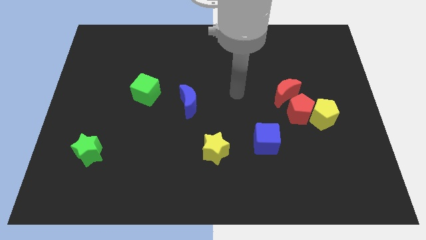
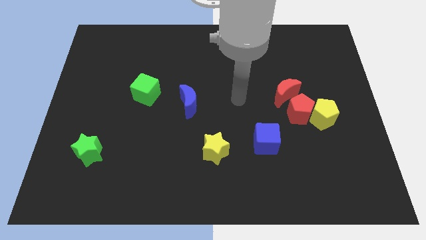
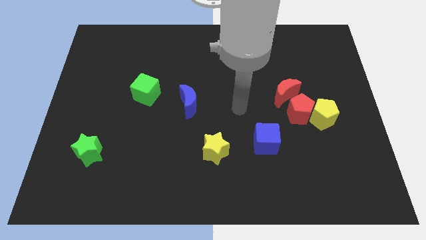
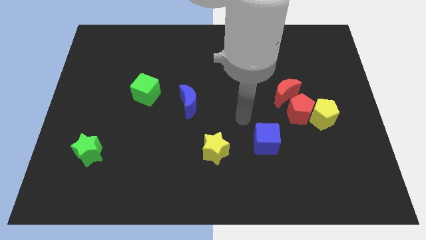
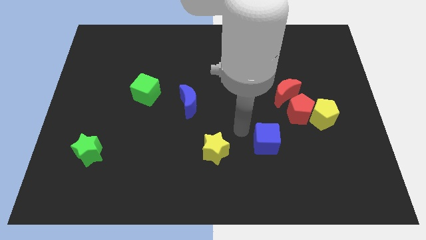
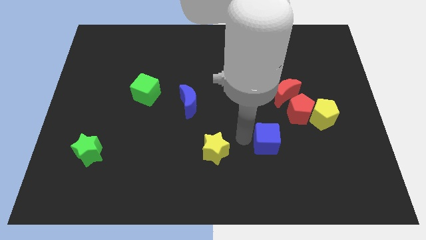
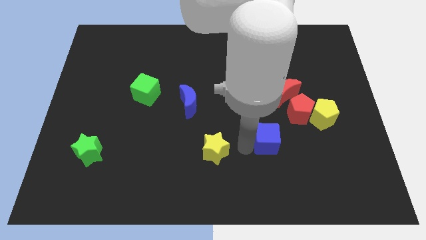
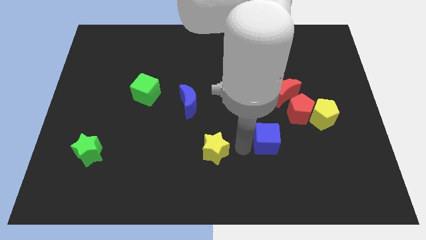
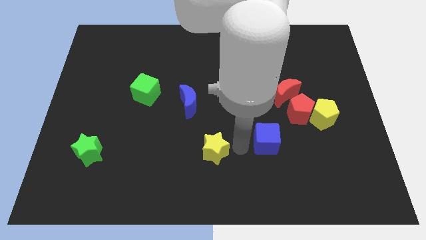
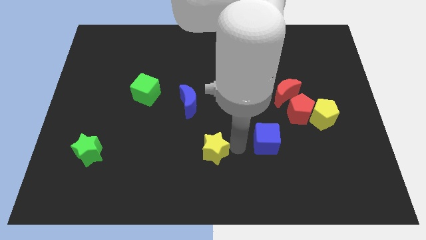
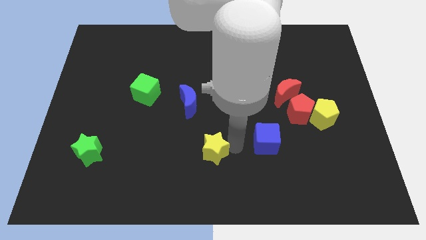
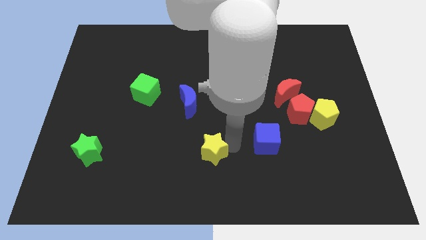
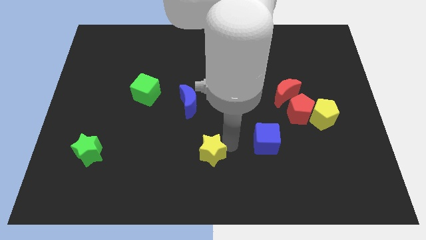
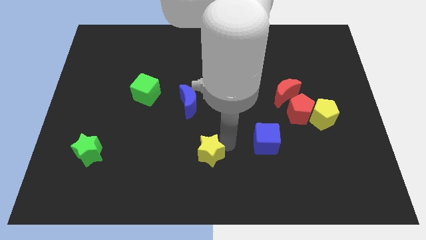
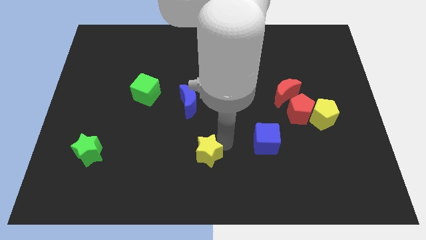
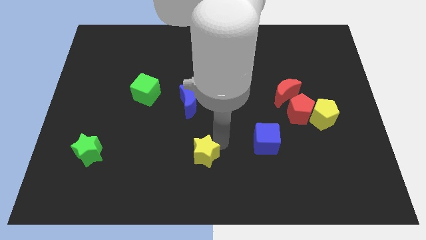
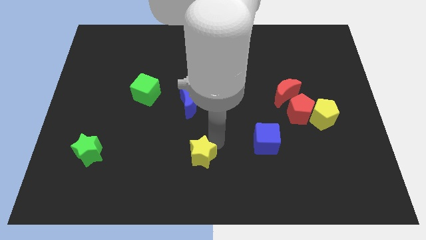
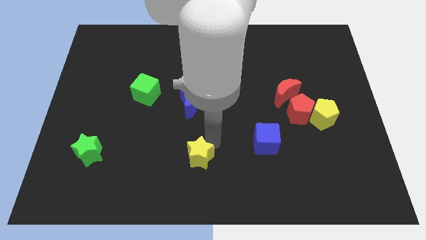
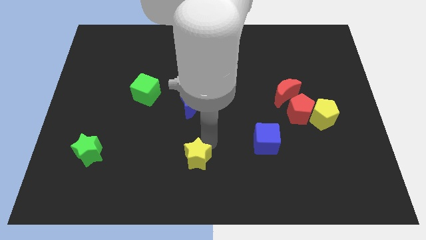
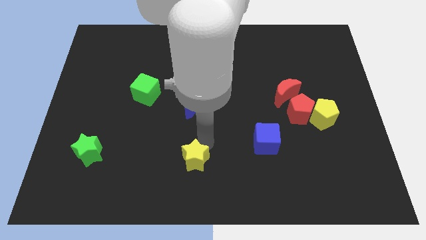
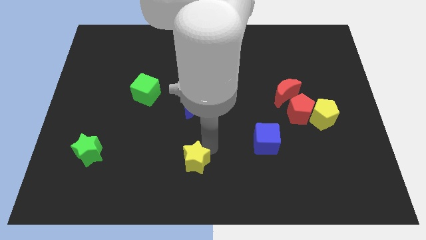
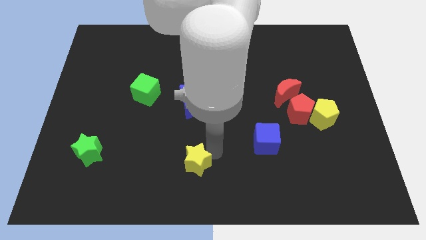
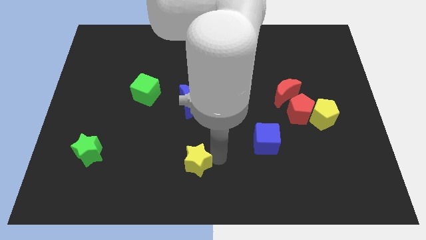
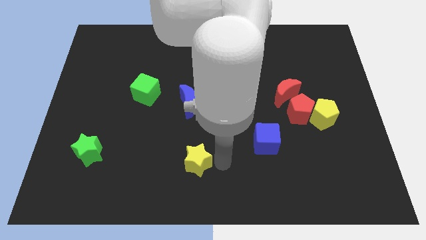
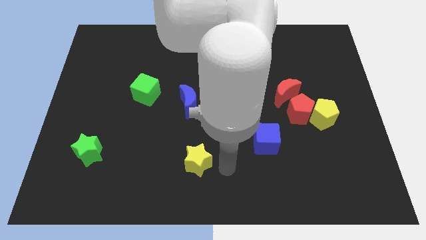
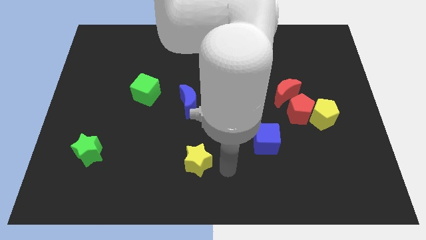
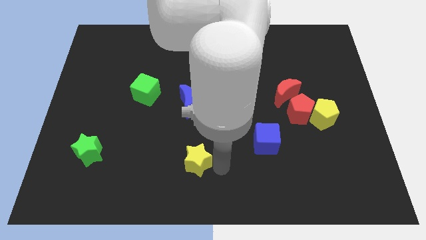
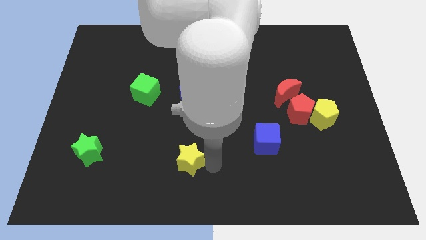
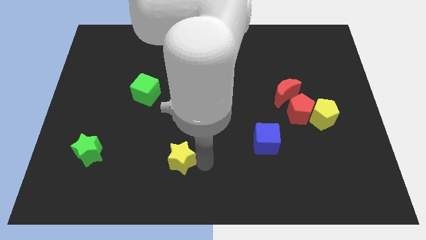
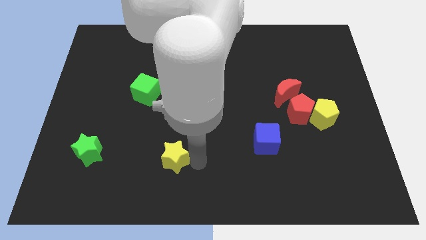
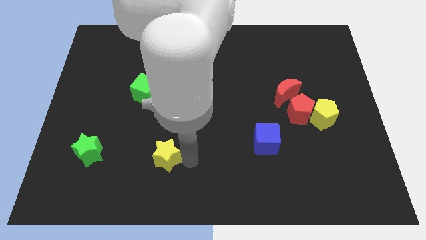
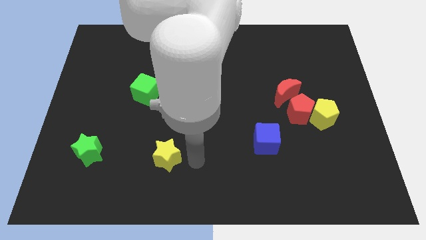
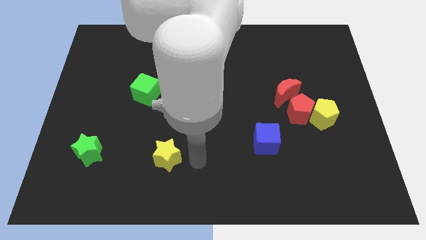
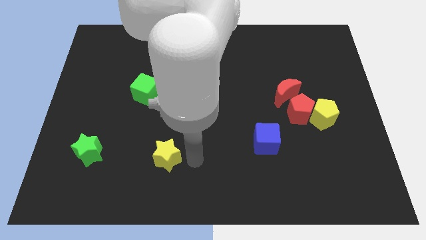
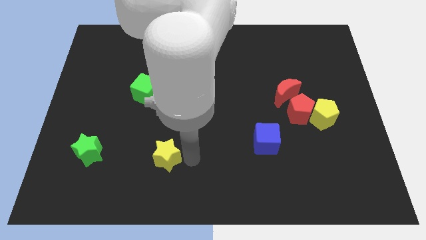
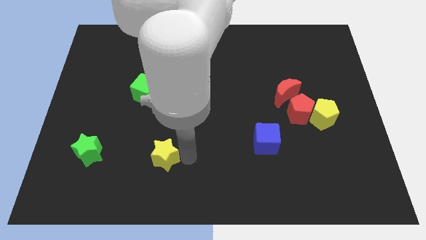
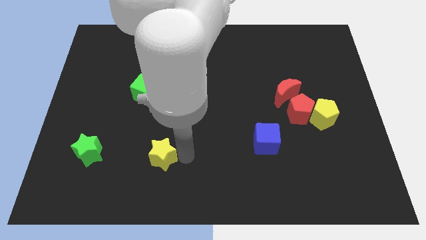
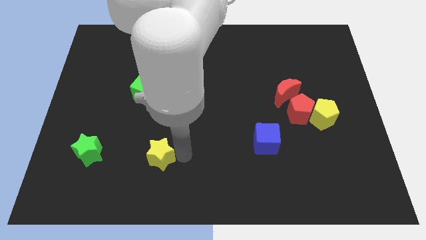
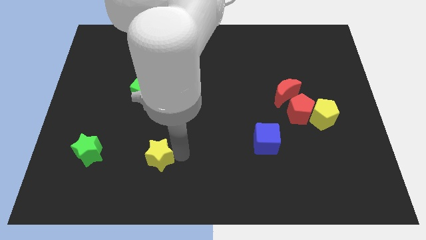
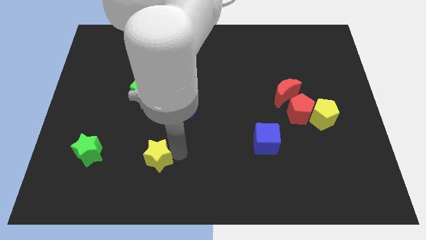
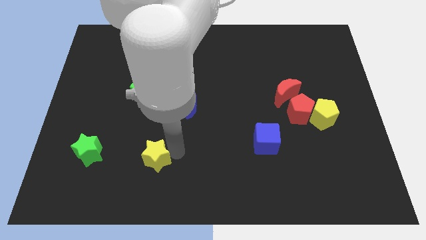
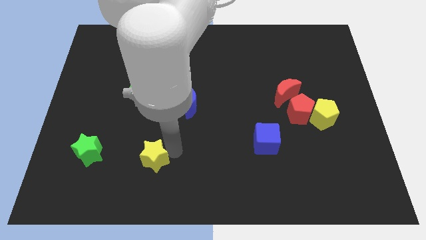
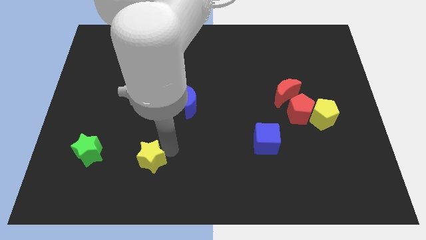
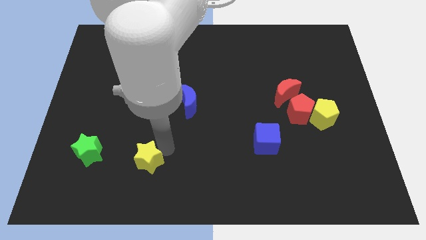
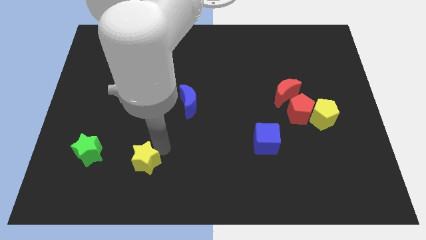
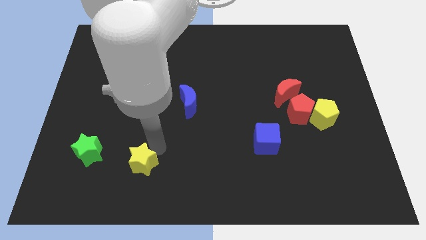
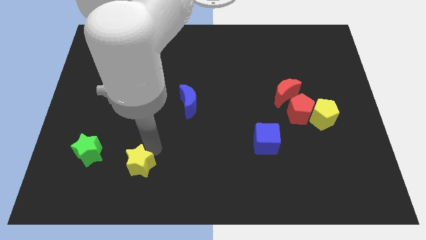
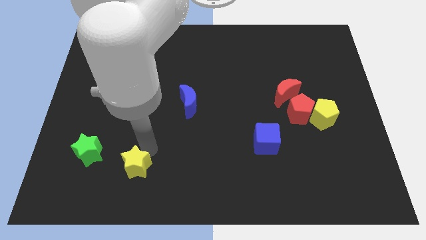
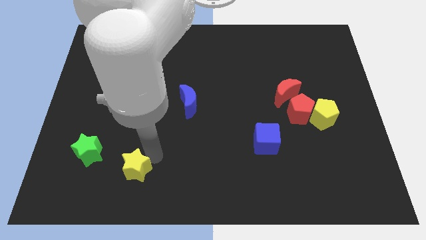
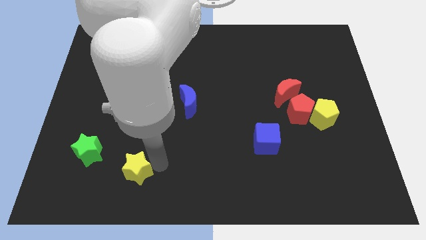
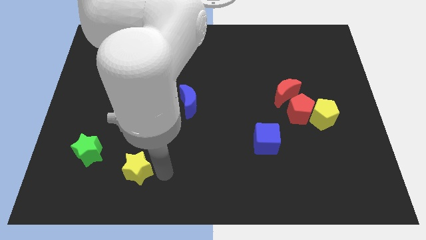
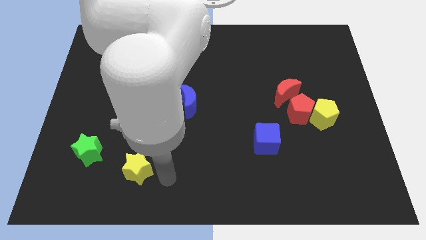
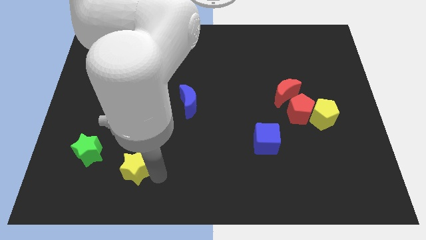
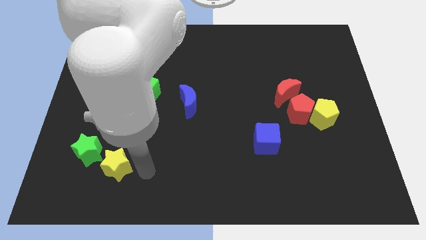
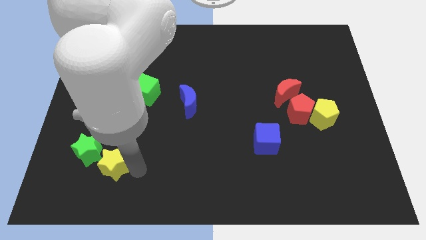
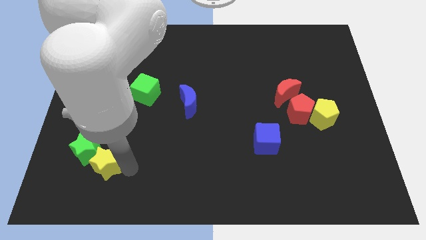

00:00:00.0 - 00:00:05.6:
slide the yellow star to the green star

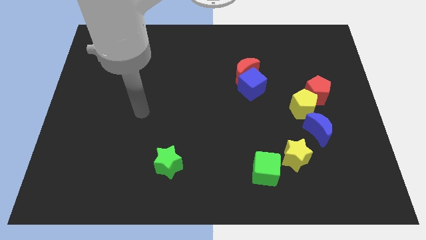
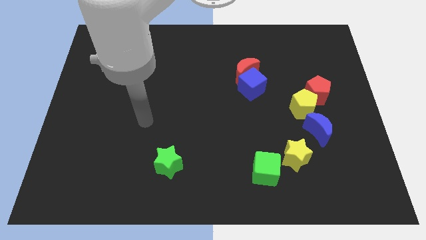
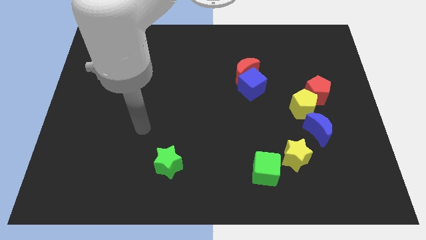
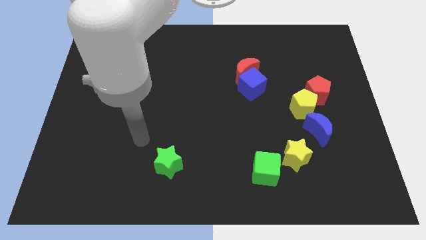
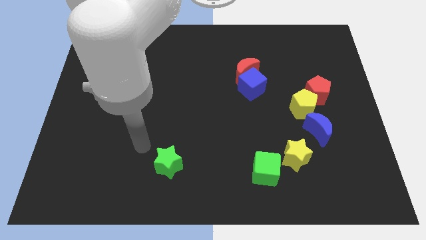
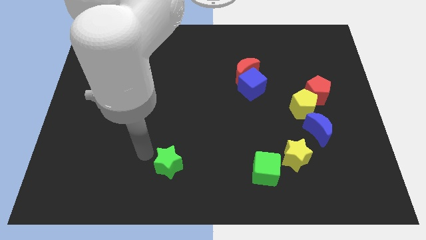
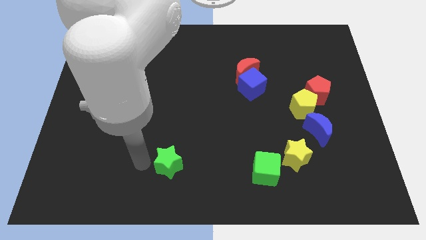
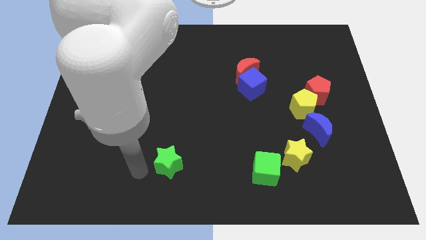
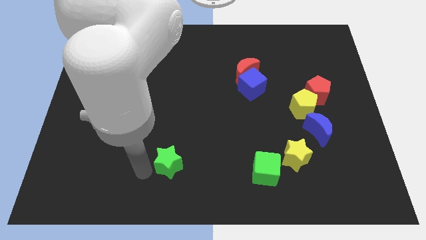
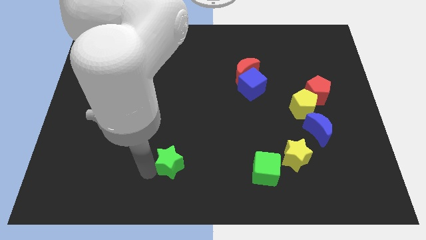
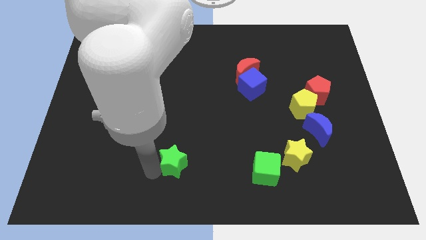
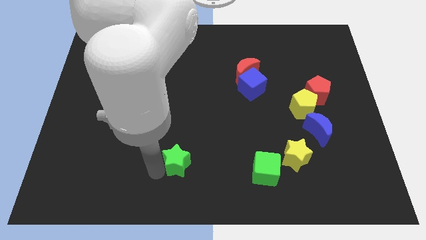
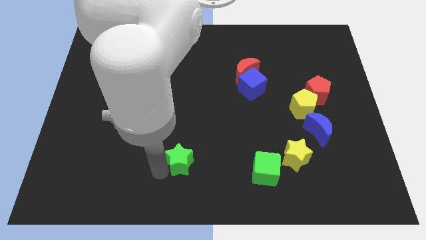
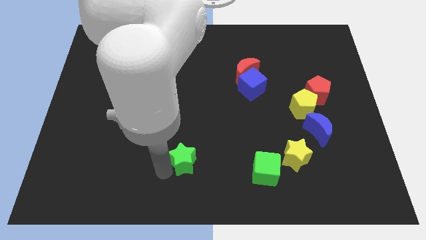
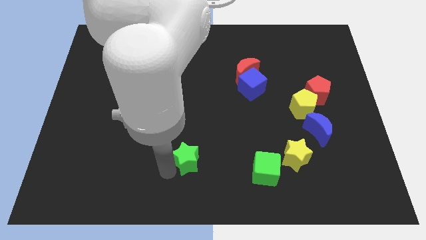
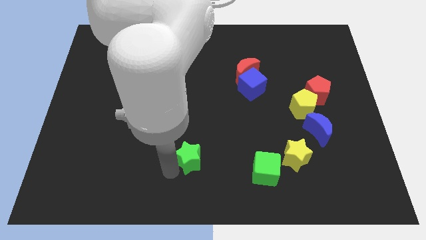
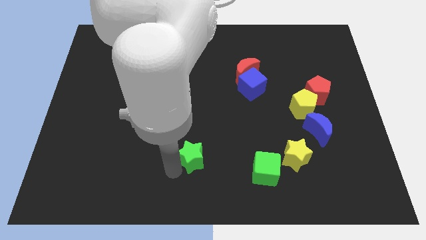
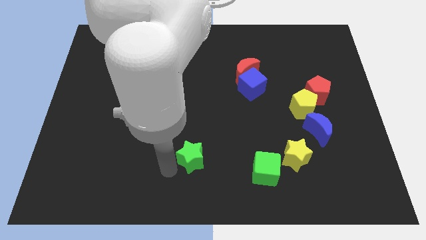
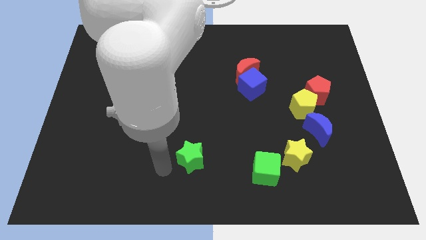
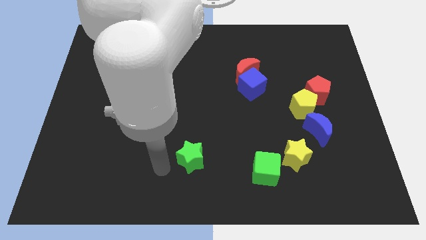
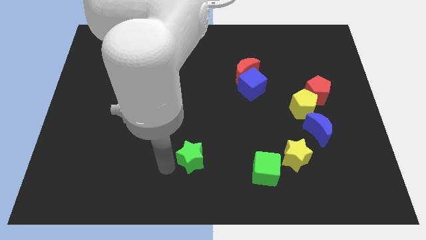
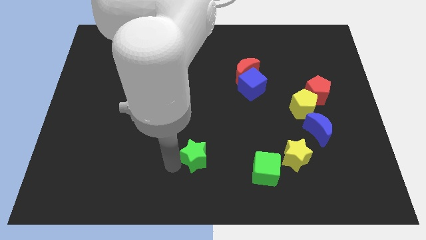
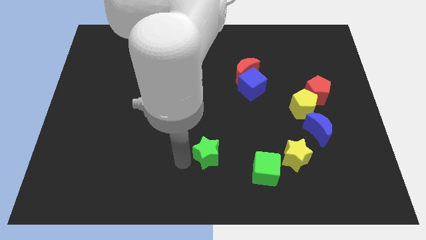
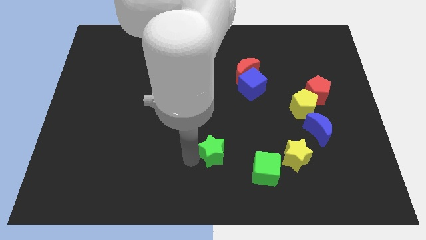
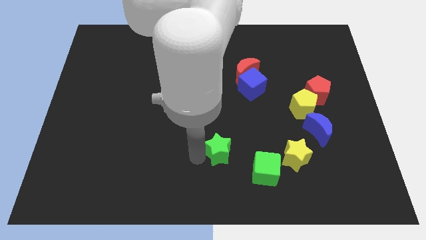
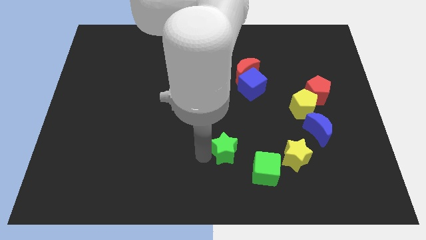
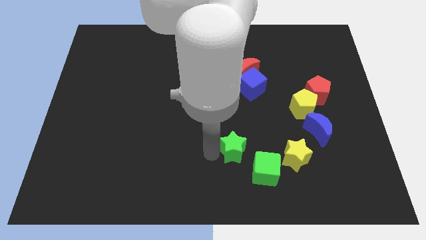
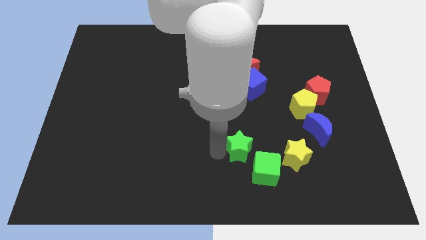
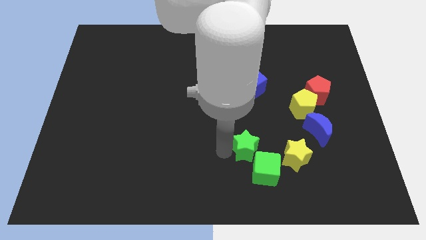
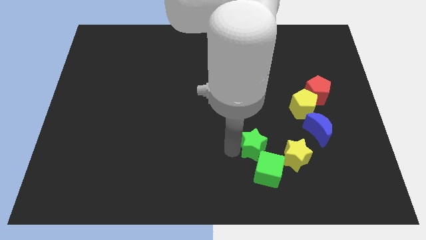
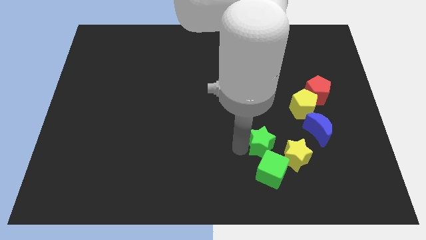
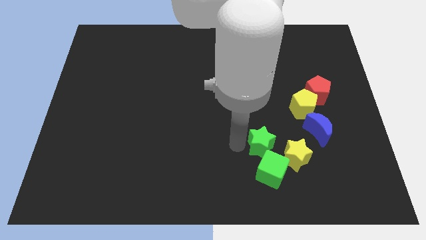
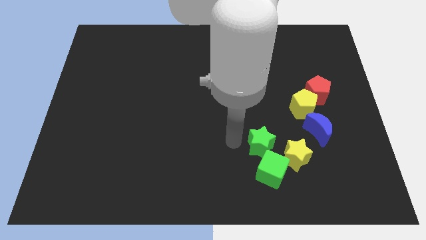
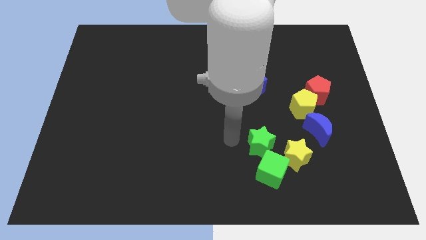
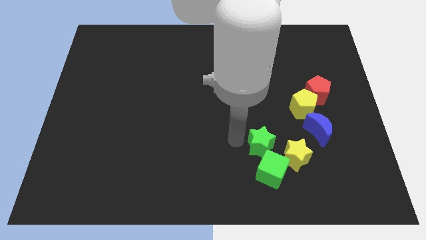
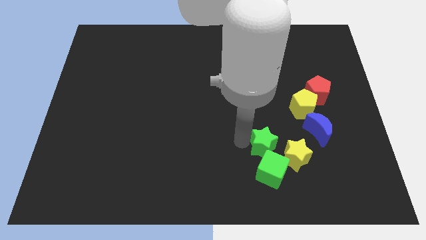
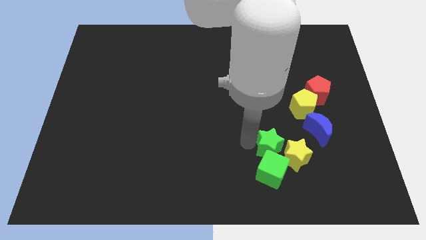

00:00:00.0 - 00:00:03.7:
push the green star towards the yellow star
